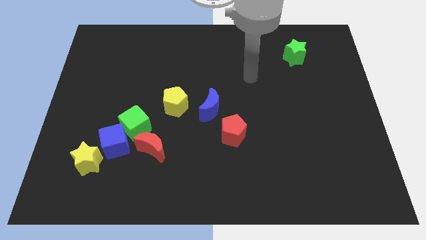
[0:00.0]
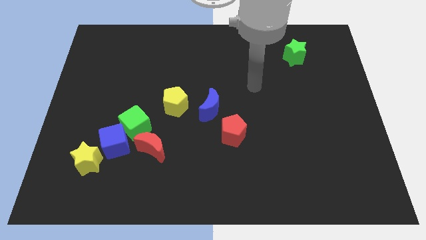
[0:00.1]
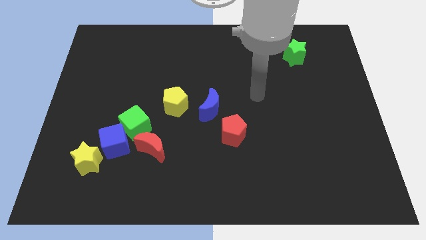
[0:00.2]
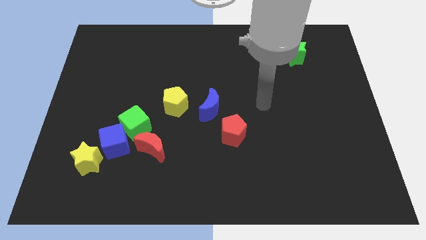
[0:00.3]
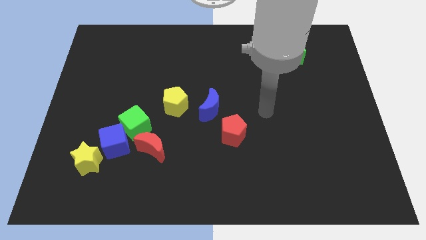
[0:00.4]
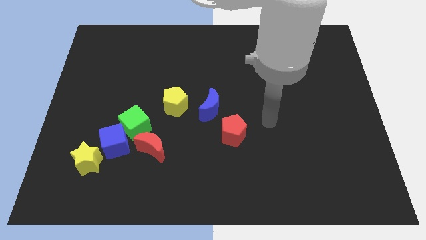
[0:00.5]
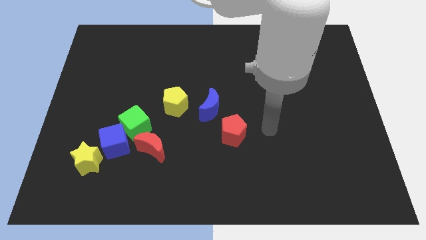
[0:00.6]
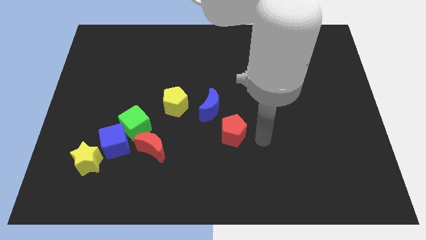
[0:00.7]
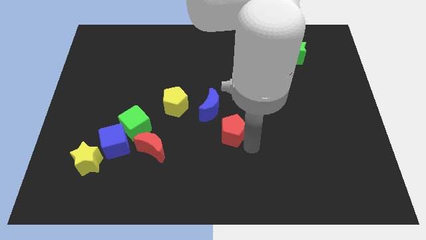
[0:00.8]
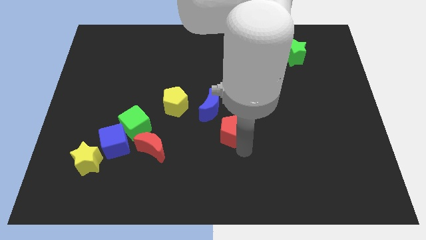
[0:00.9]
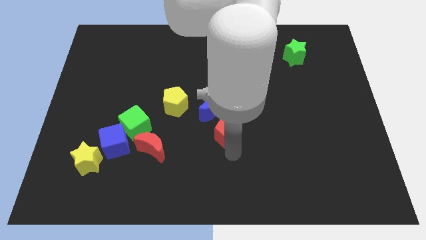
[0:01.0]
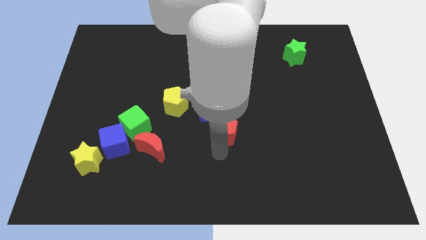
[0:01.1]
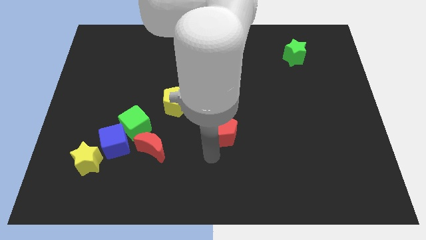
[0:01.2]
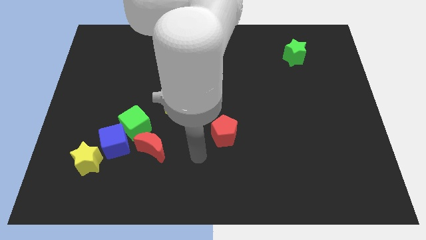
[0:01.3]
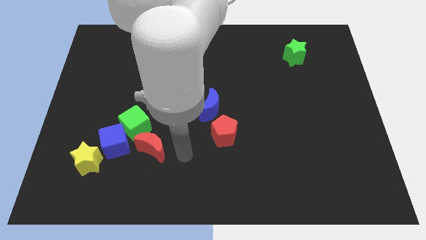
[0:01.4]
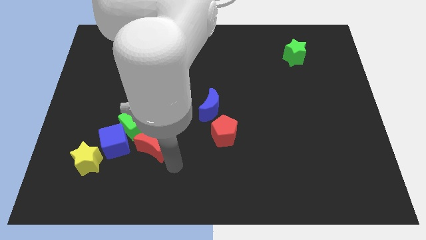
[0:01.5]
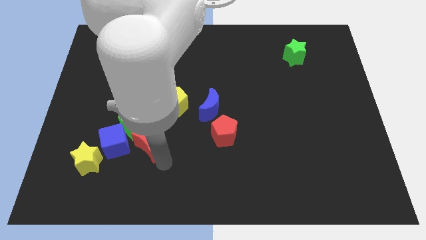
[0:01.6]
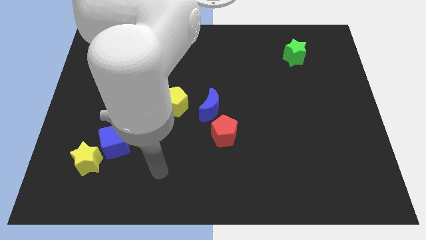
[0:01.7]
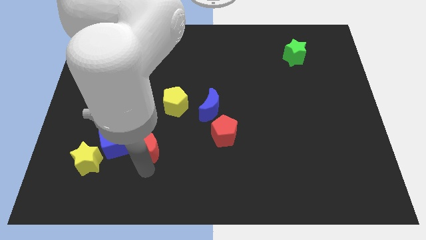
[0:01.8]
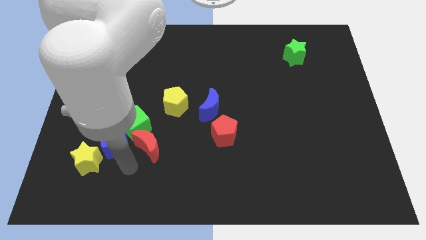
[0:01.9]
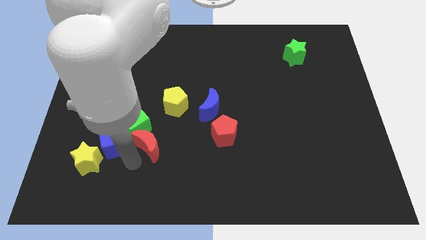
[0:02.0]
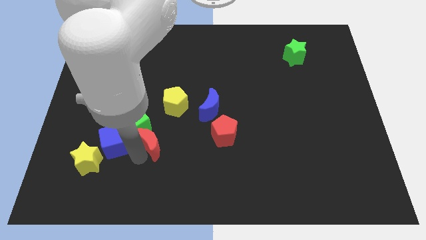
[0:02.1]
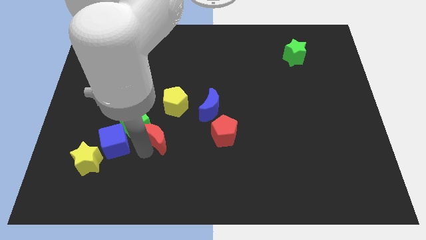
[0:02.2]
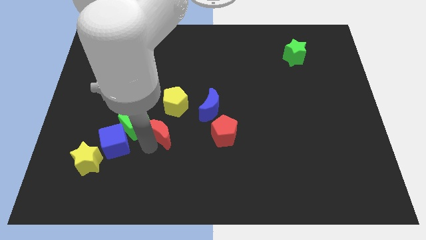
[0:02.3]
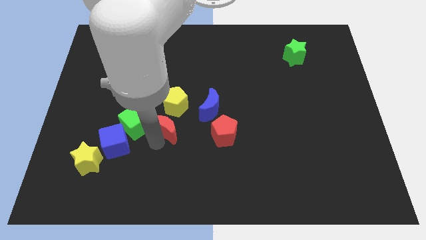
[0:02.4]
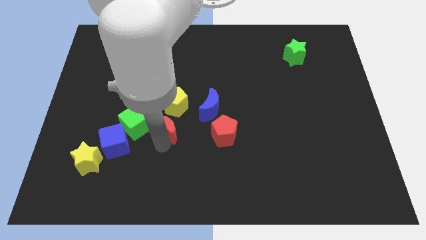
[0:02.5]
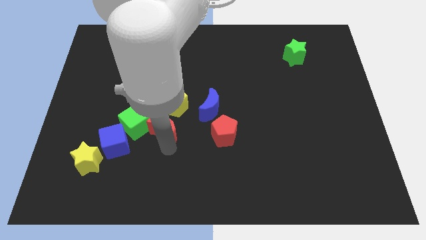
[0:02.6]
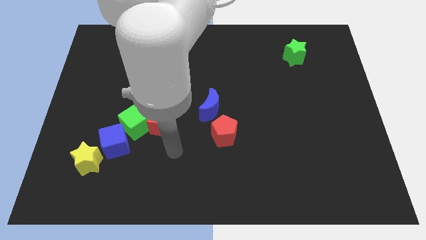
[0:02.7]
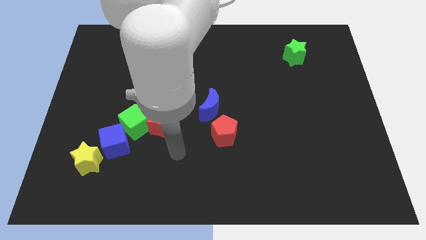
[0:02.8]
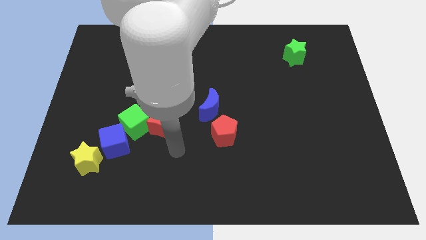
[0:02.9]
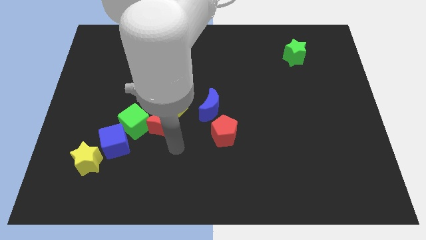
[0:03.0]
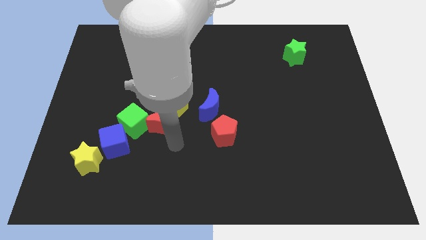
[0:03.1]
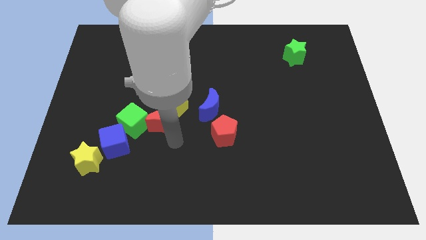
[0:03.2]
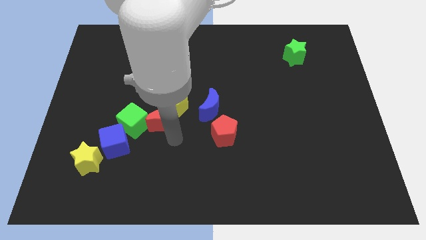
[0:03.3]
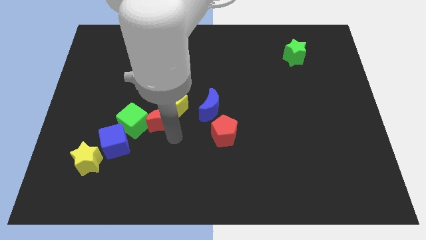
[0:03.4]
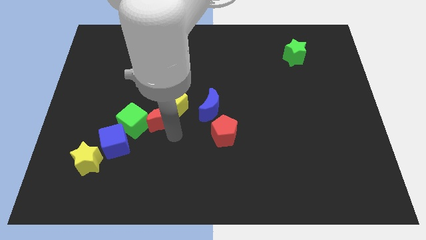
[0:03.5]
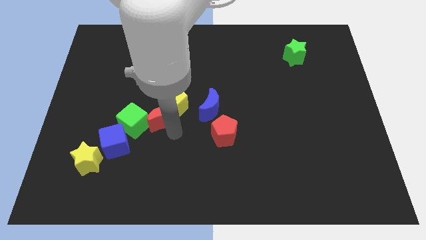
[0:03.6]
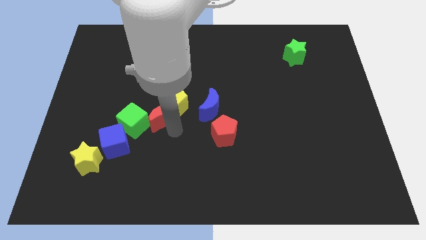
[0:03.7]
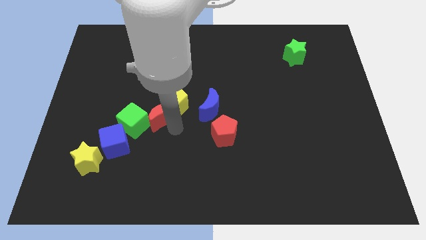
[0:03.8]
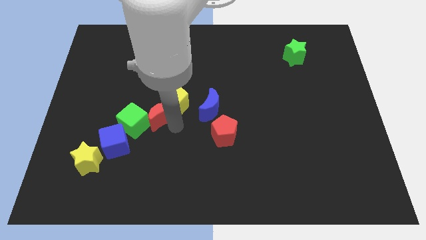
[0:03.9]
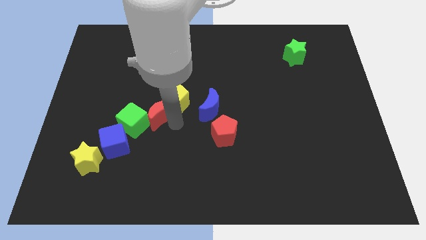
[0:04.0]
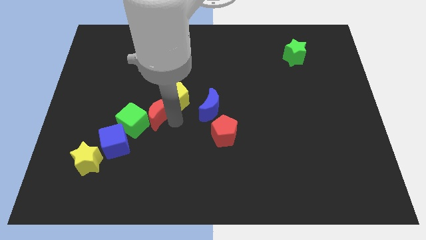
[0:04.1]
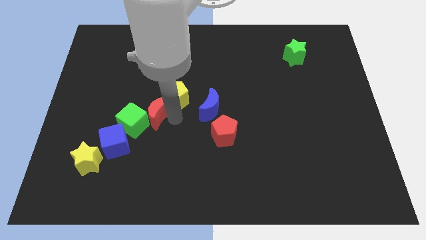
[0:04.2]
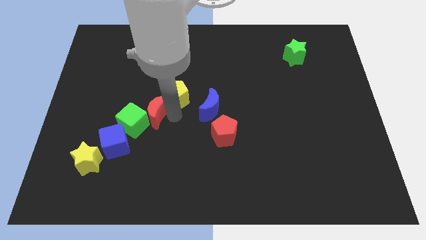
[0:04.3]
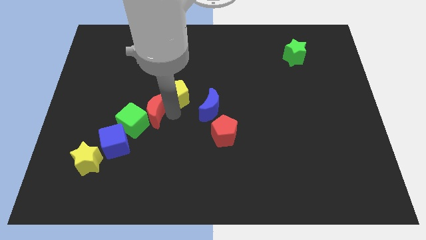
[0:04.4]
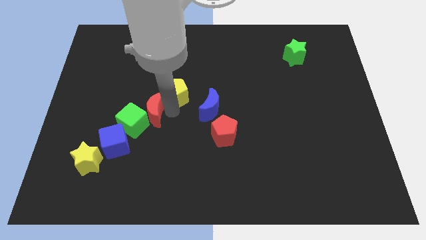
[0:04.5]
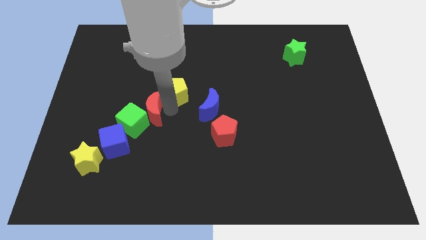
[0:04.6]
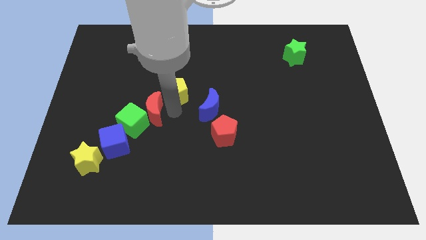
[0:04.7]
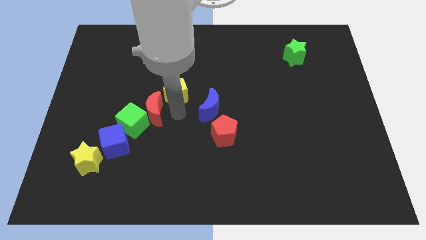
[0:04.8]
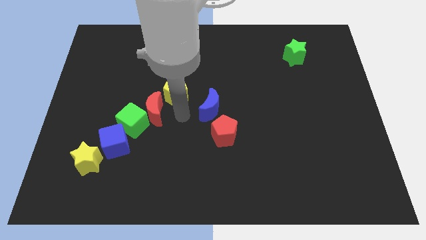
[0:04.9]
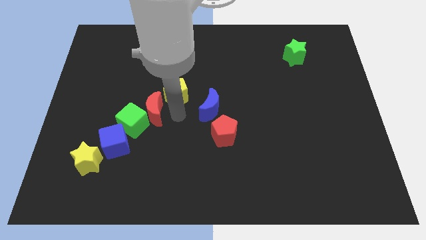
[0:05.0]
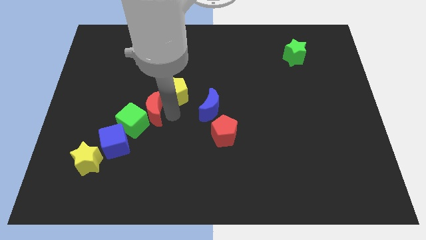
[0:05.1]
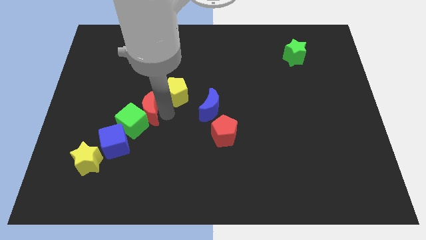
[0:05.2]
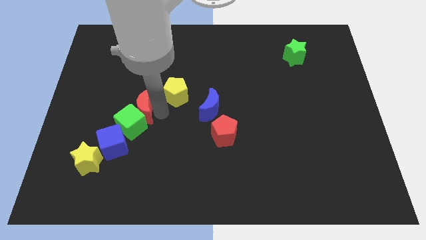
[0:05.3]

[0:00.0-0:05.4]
slightly push the red moon upwards and left diagonally

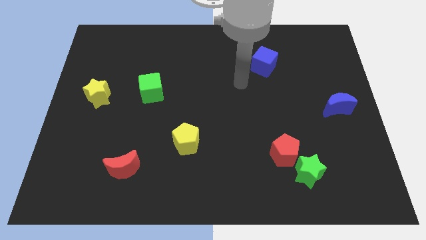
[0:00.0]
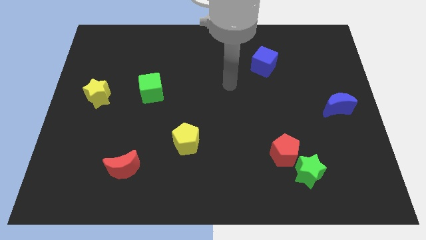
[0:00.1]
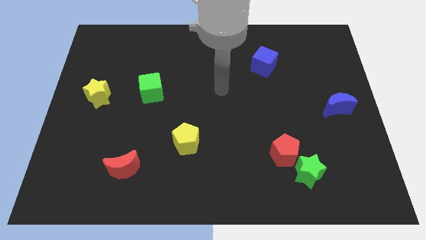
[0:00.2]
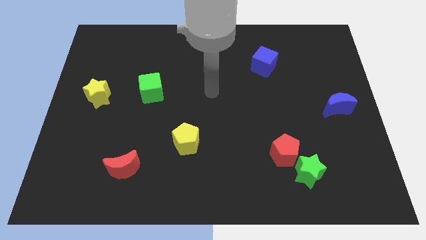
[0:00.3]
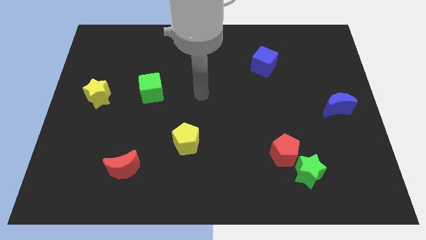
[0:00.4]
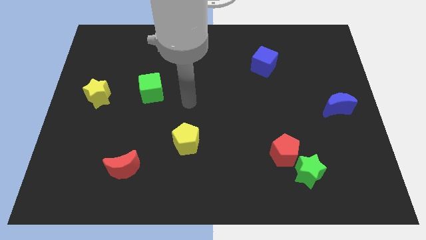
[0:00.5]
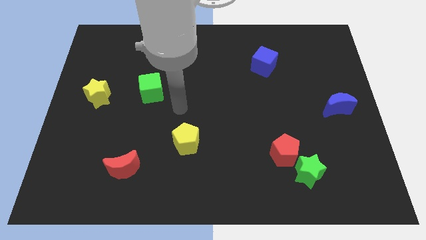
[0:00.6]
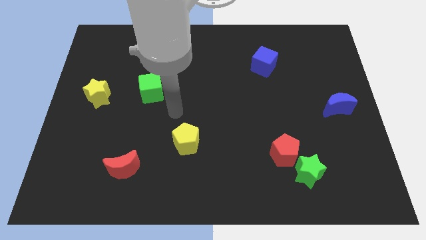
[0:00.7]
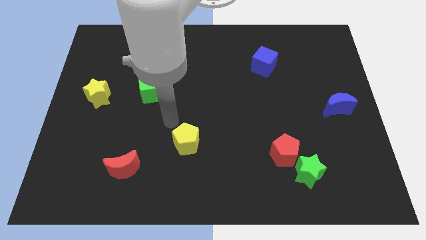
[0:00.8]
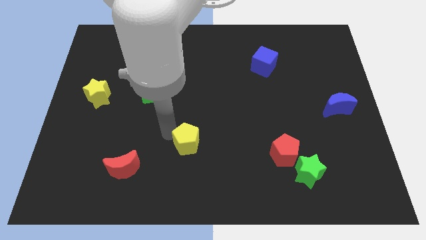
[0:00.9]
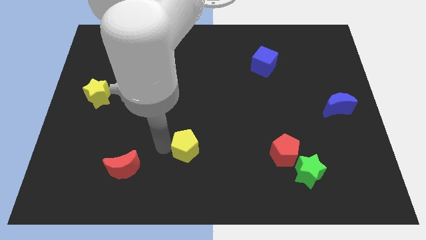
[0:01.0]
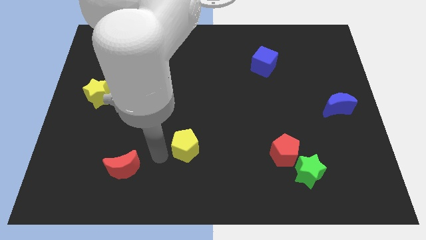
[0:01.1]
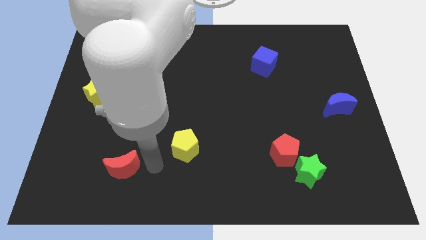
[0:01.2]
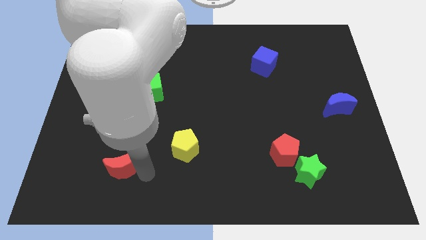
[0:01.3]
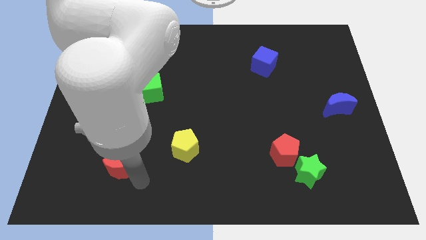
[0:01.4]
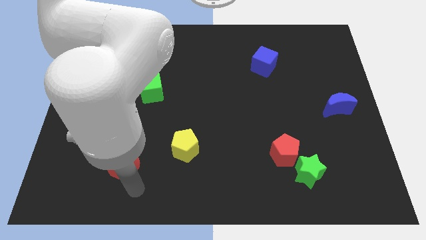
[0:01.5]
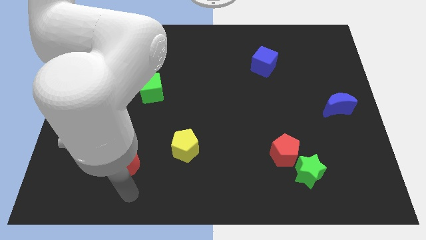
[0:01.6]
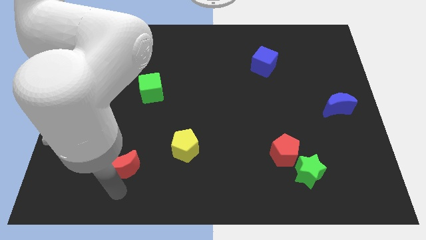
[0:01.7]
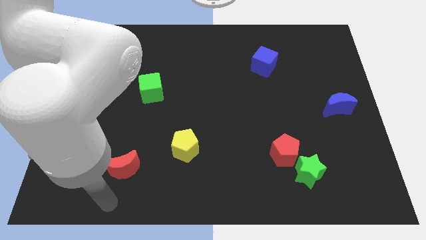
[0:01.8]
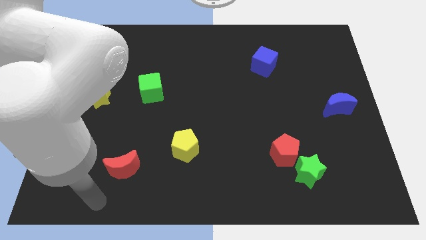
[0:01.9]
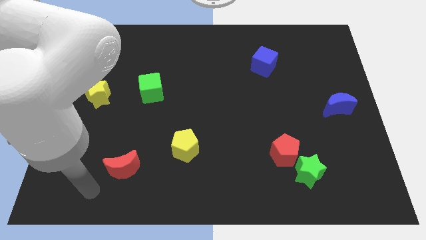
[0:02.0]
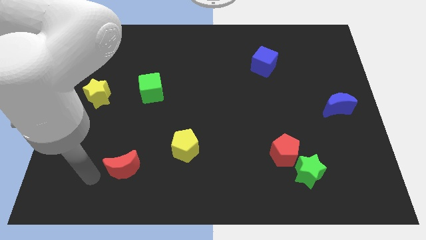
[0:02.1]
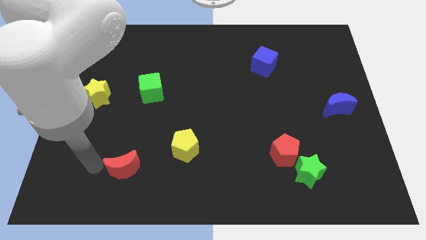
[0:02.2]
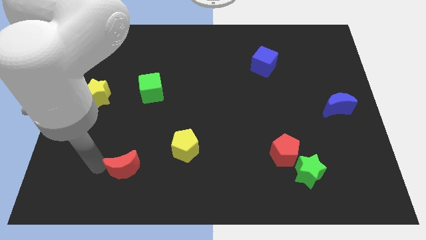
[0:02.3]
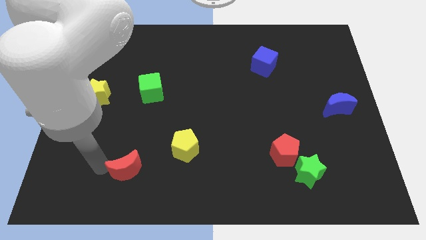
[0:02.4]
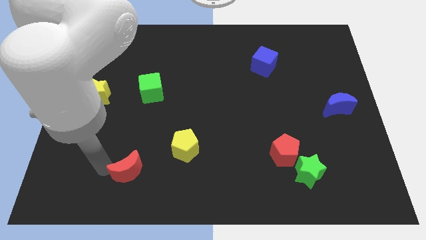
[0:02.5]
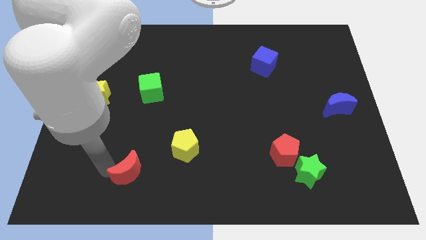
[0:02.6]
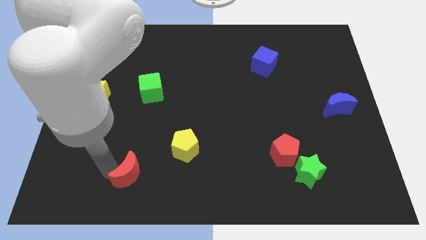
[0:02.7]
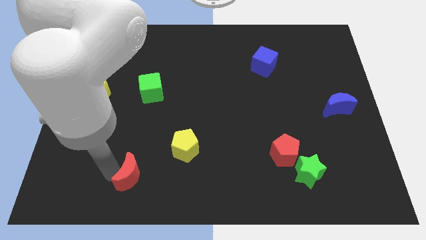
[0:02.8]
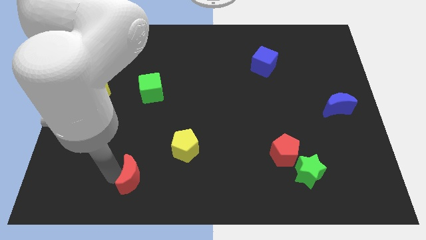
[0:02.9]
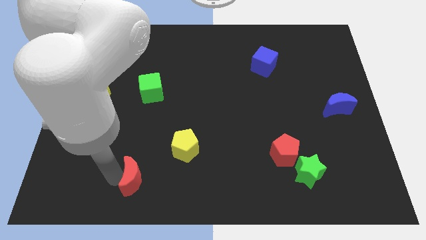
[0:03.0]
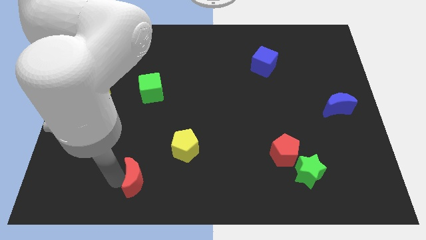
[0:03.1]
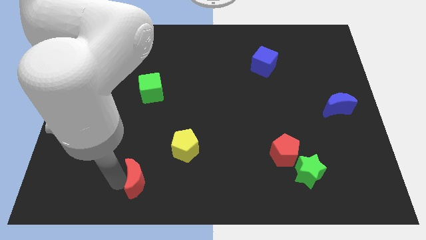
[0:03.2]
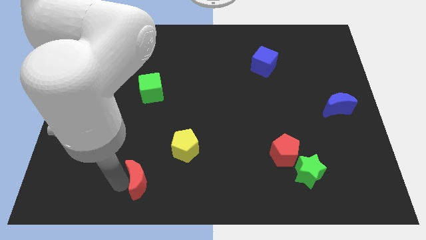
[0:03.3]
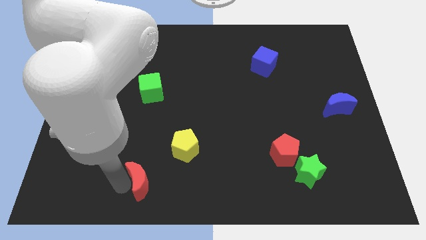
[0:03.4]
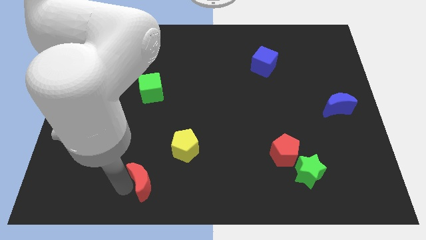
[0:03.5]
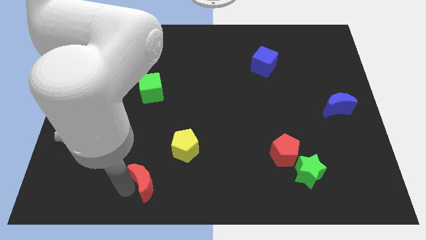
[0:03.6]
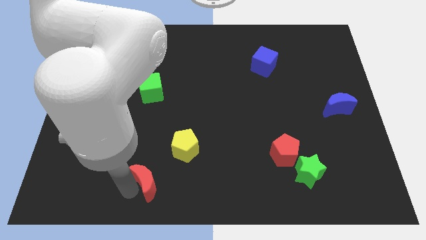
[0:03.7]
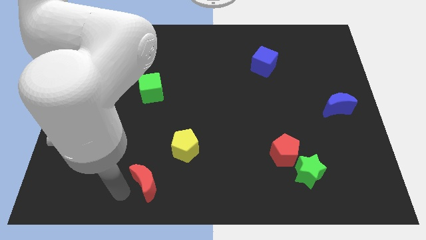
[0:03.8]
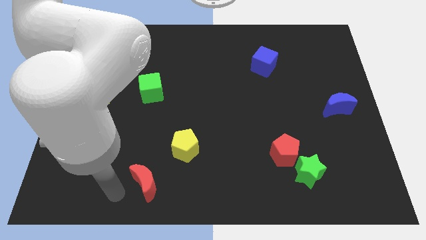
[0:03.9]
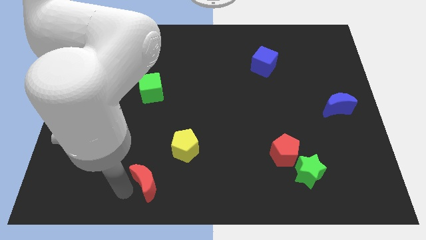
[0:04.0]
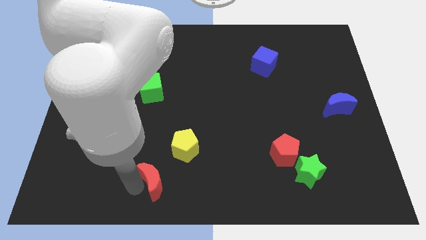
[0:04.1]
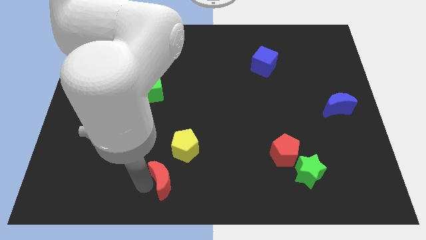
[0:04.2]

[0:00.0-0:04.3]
push the red moon a bit to the right
